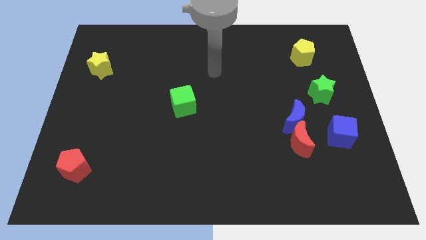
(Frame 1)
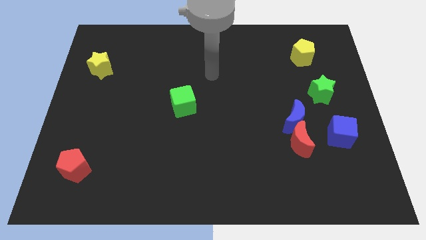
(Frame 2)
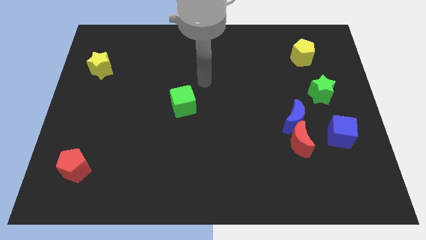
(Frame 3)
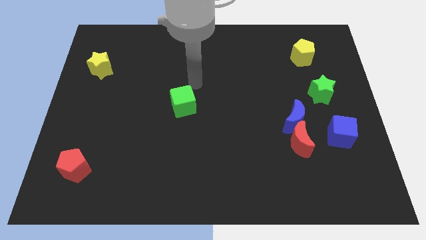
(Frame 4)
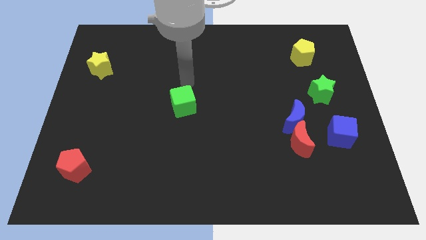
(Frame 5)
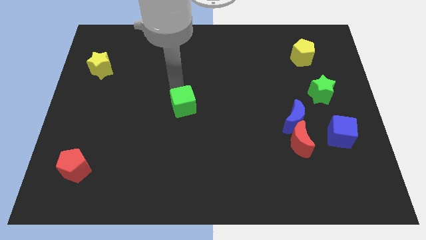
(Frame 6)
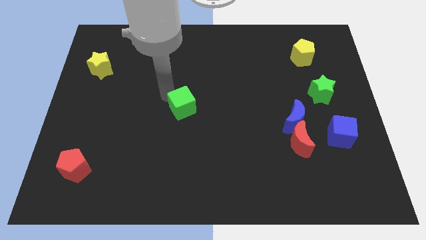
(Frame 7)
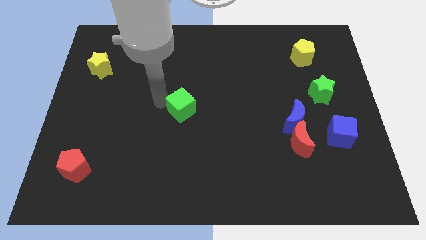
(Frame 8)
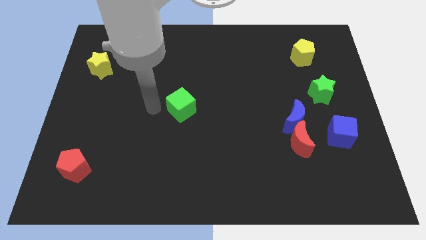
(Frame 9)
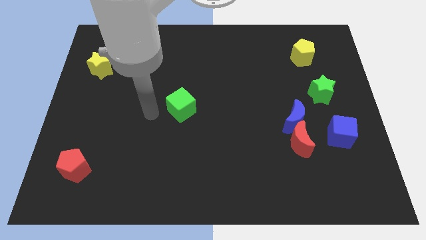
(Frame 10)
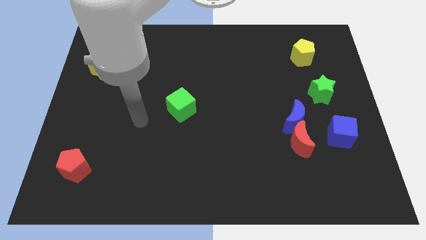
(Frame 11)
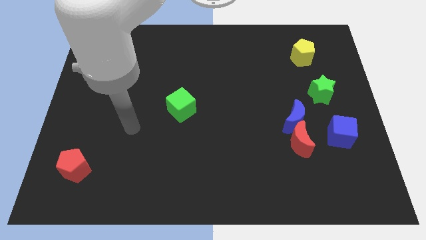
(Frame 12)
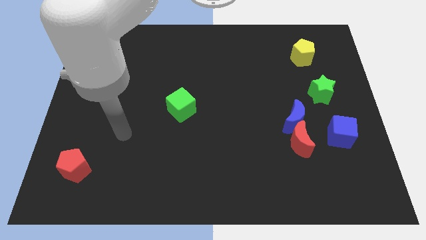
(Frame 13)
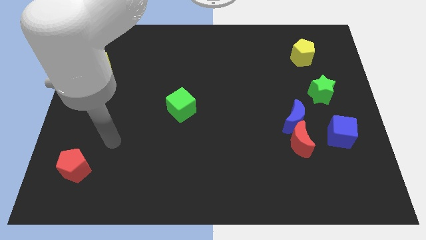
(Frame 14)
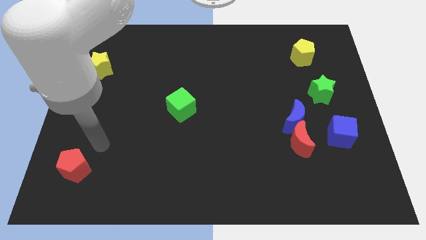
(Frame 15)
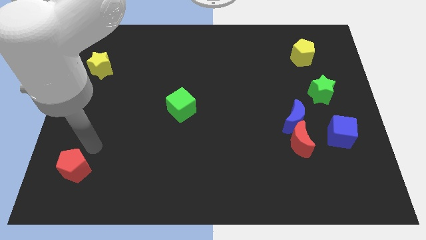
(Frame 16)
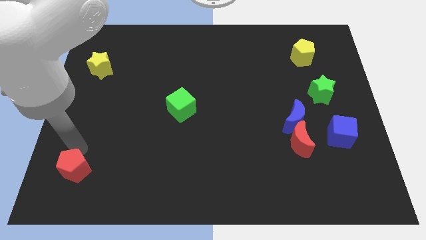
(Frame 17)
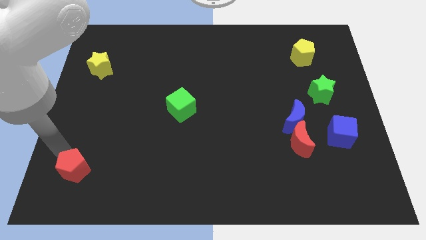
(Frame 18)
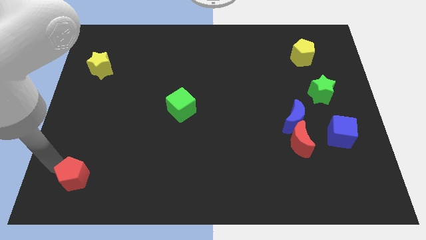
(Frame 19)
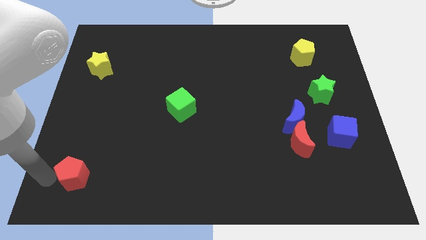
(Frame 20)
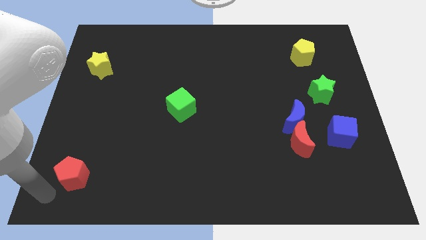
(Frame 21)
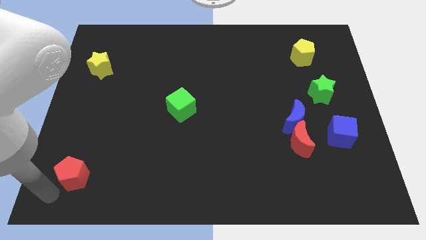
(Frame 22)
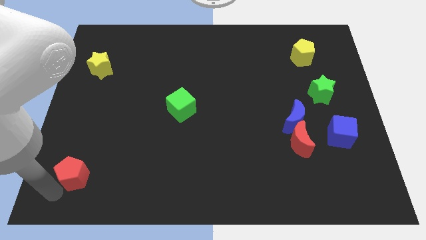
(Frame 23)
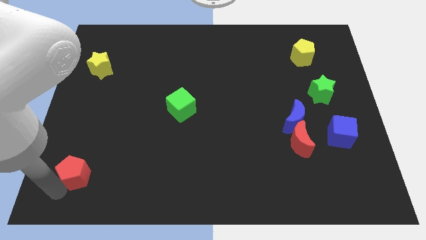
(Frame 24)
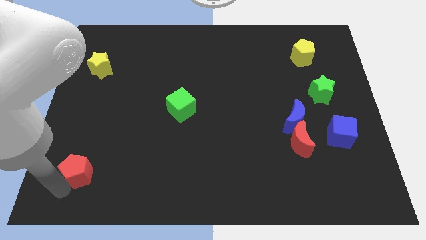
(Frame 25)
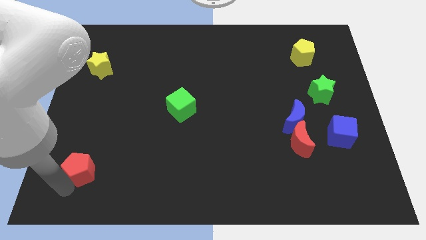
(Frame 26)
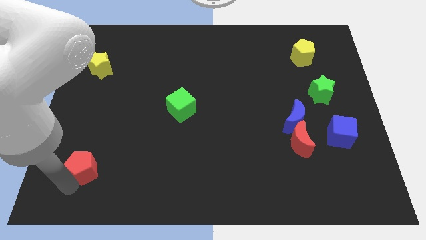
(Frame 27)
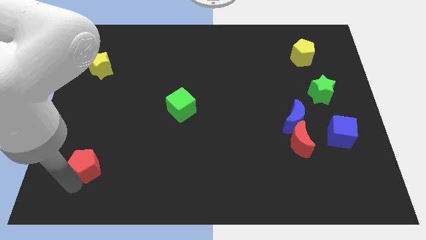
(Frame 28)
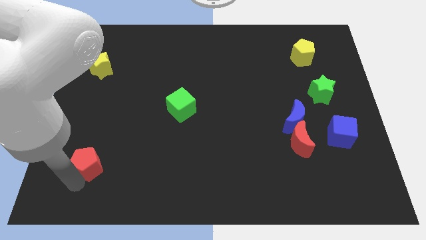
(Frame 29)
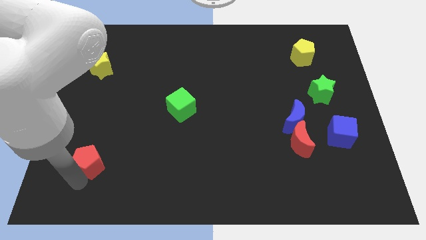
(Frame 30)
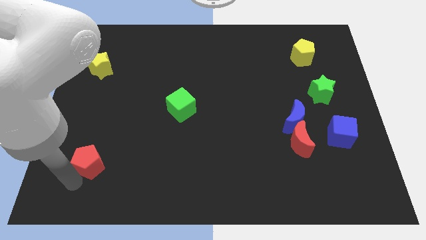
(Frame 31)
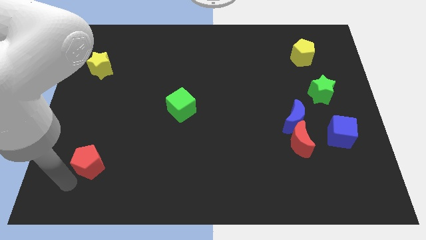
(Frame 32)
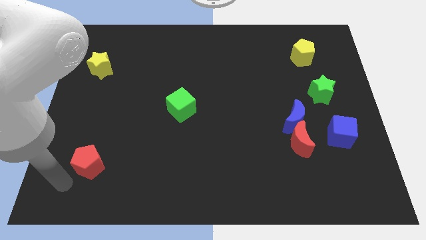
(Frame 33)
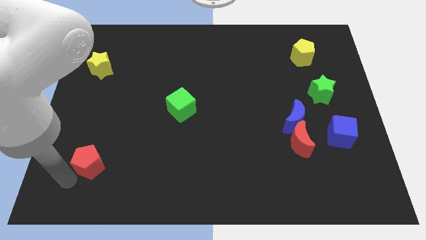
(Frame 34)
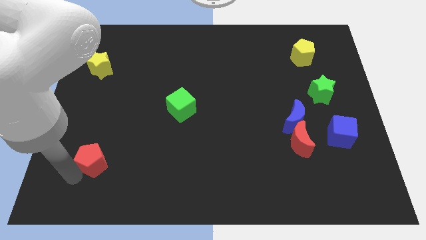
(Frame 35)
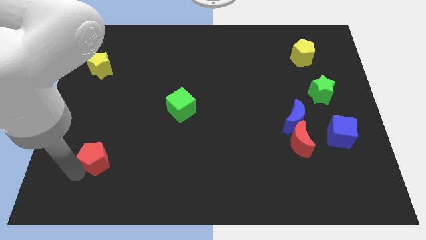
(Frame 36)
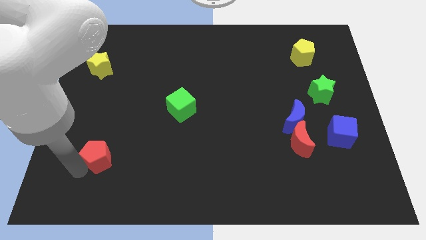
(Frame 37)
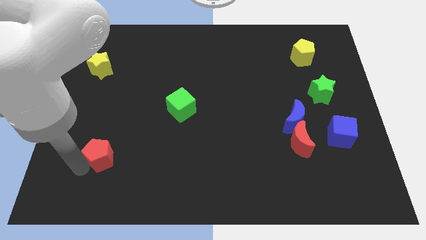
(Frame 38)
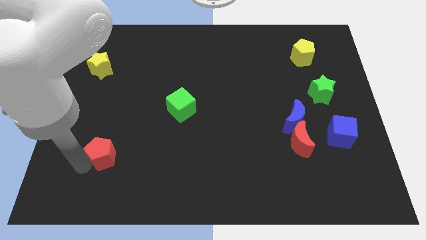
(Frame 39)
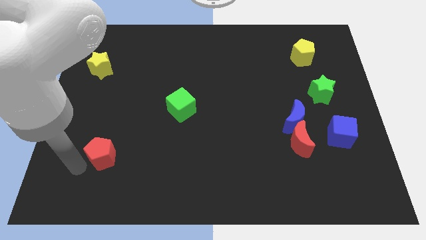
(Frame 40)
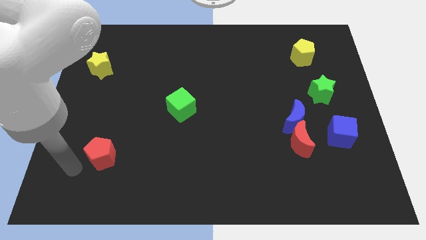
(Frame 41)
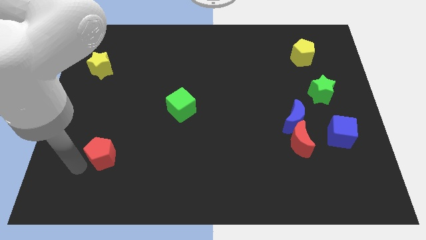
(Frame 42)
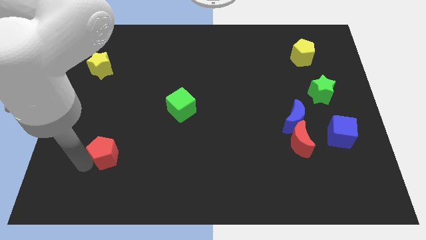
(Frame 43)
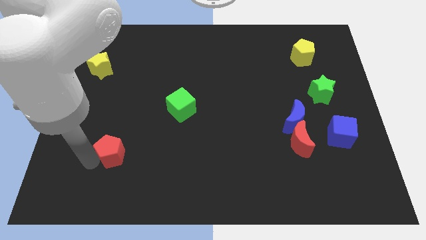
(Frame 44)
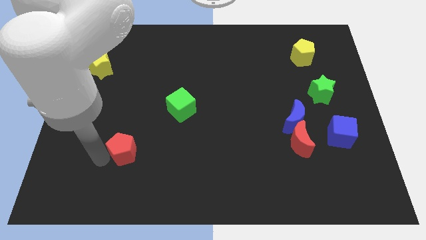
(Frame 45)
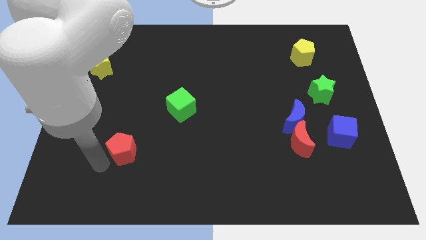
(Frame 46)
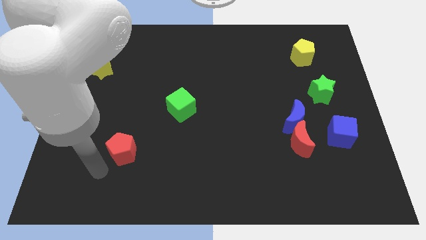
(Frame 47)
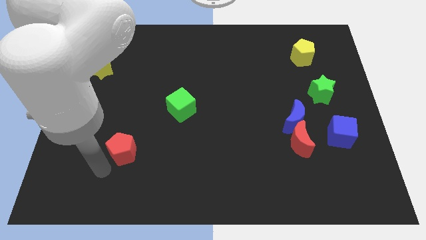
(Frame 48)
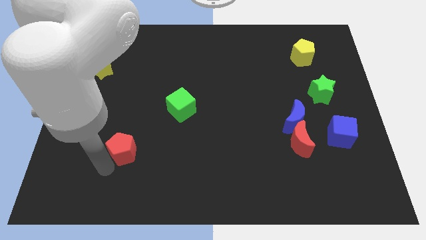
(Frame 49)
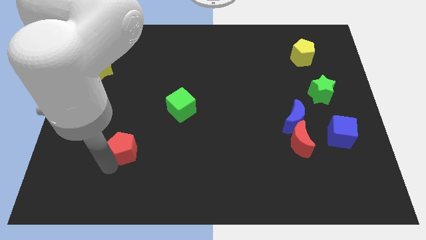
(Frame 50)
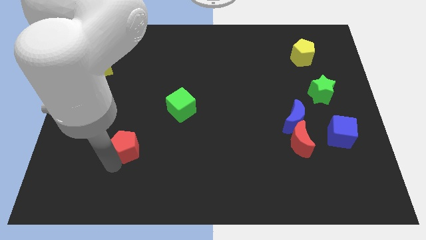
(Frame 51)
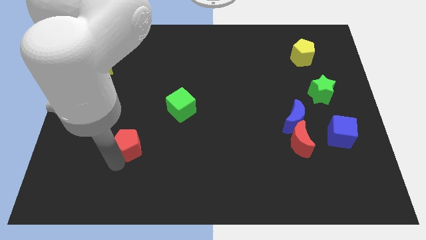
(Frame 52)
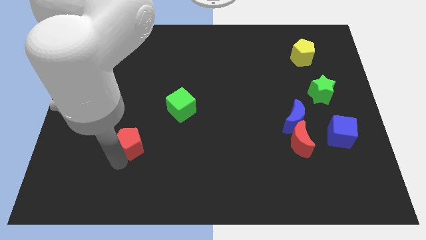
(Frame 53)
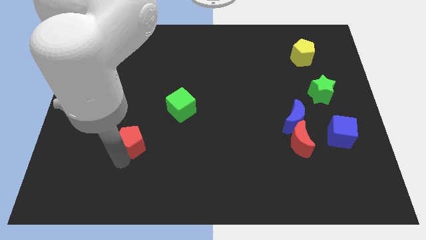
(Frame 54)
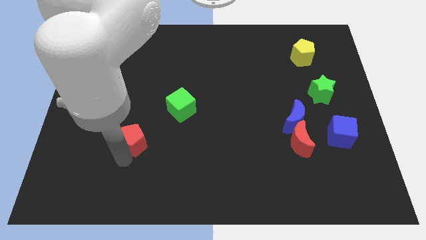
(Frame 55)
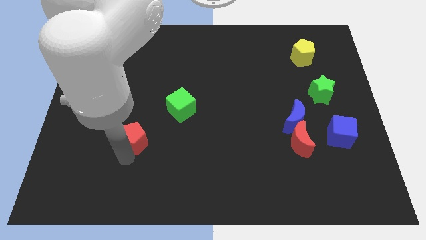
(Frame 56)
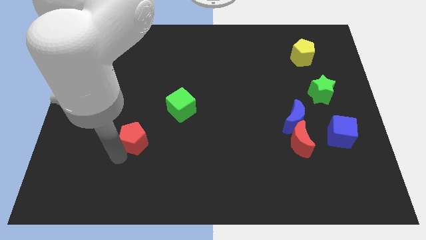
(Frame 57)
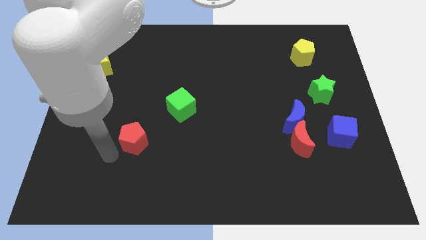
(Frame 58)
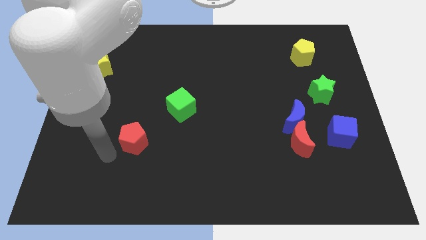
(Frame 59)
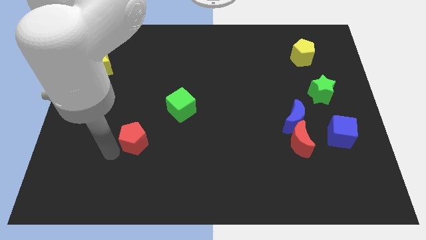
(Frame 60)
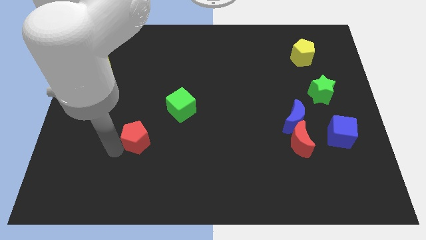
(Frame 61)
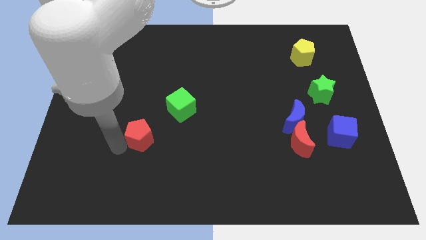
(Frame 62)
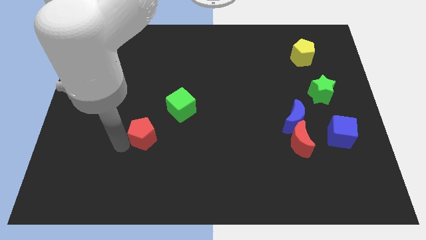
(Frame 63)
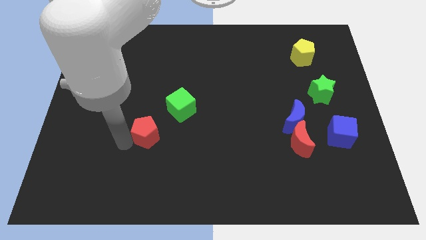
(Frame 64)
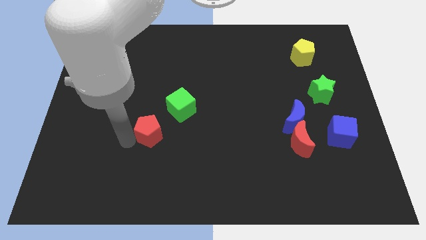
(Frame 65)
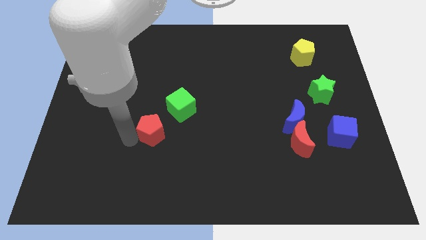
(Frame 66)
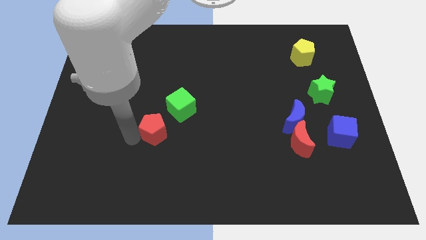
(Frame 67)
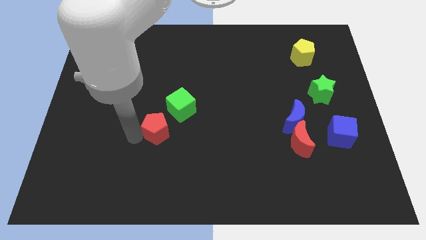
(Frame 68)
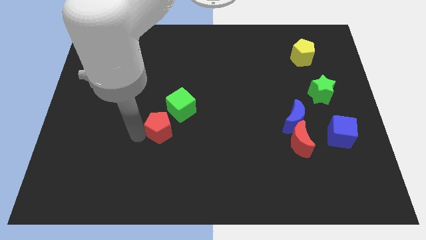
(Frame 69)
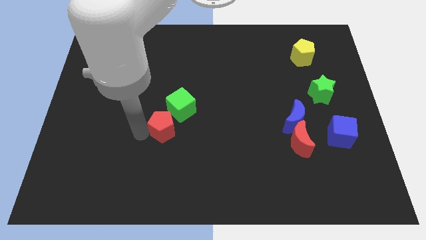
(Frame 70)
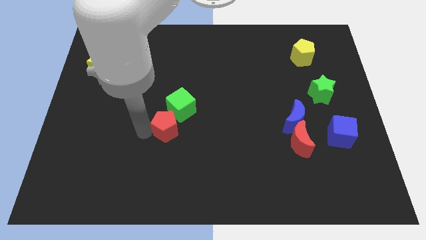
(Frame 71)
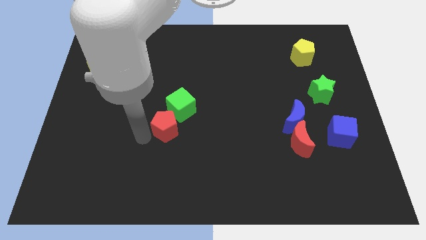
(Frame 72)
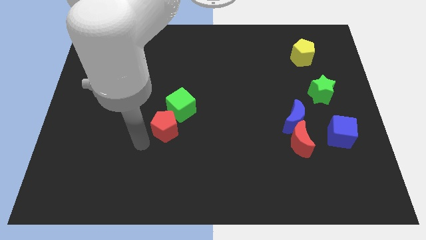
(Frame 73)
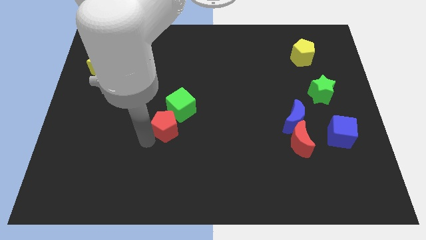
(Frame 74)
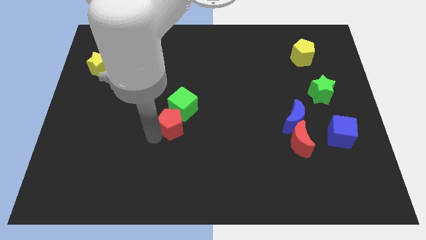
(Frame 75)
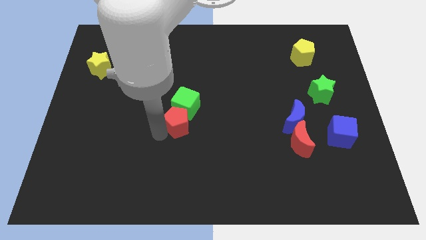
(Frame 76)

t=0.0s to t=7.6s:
move the red pentagon upwards and to the right diagonally

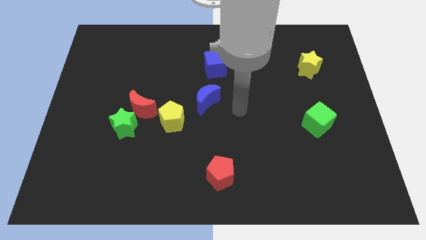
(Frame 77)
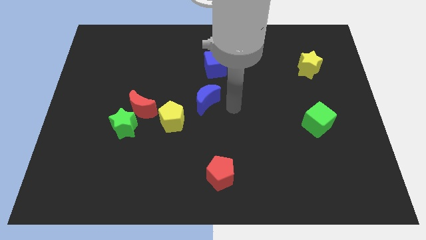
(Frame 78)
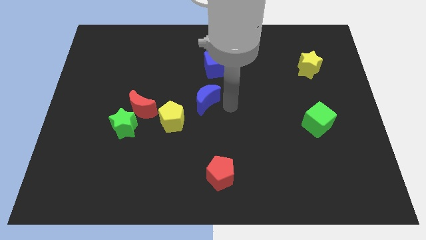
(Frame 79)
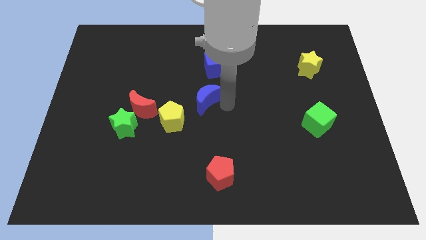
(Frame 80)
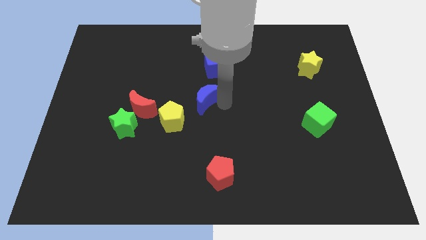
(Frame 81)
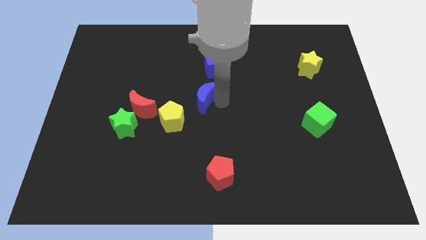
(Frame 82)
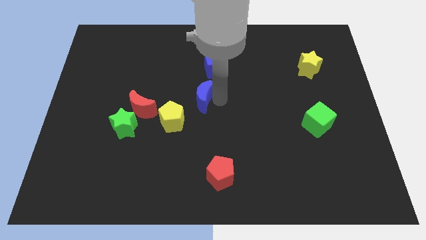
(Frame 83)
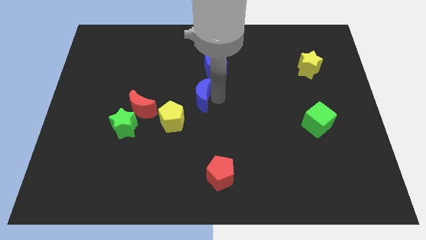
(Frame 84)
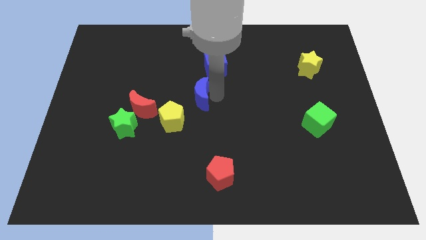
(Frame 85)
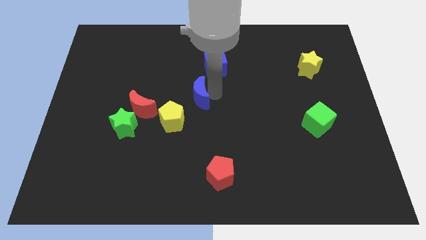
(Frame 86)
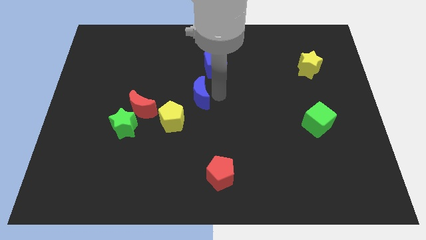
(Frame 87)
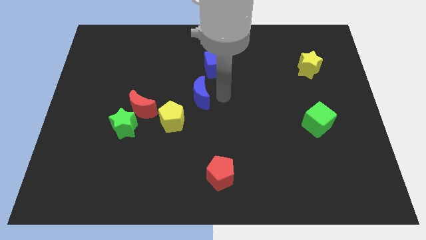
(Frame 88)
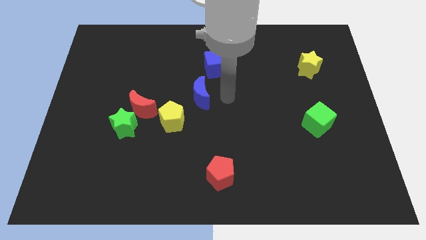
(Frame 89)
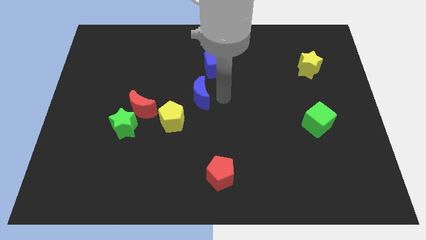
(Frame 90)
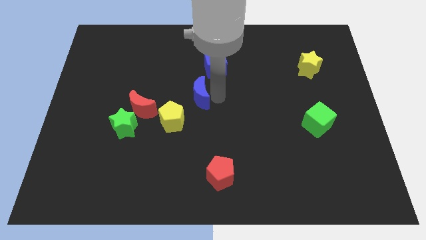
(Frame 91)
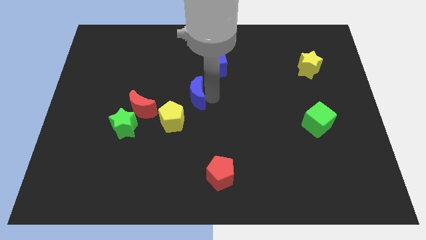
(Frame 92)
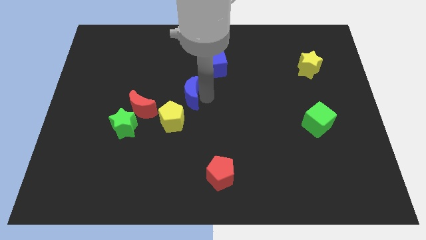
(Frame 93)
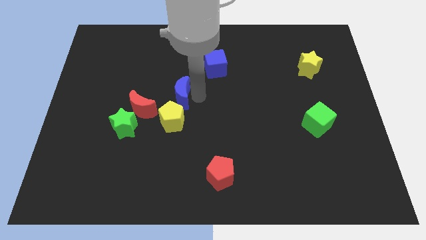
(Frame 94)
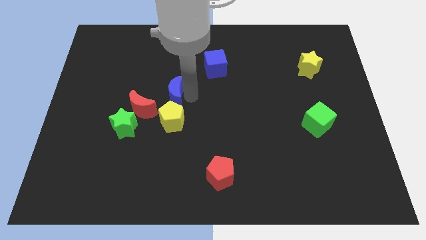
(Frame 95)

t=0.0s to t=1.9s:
push the blue moon left a little
